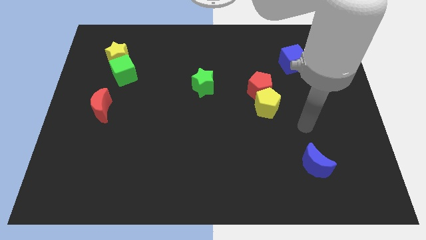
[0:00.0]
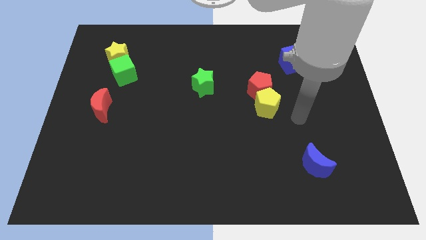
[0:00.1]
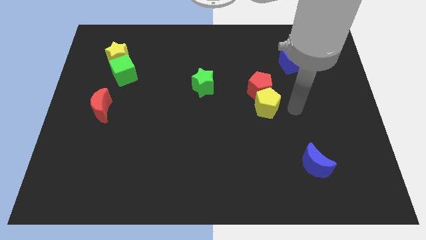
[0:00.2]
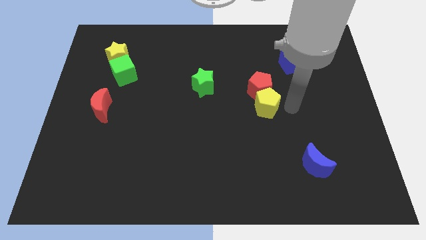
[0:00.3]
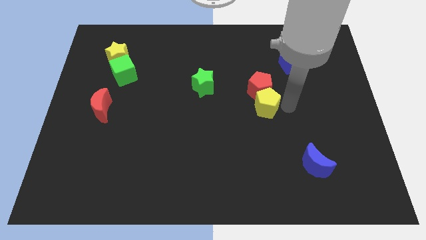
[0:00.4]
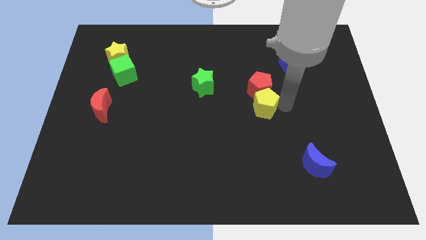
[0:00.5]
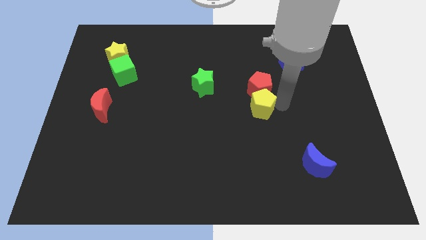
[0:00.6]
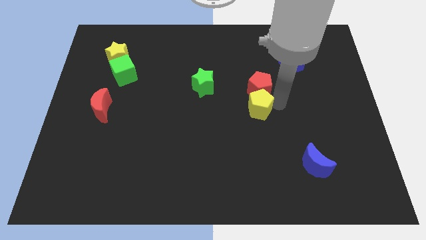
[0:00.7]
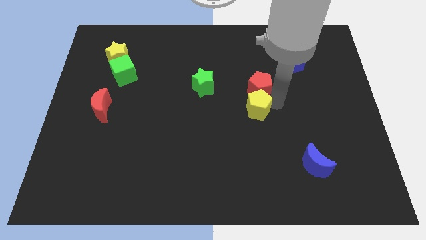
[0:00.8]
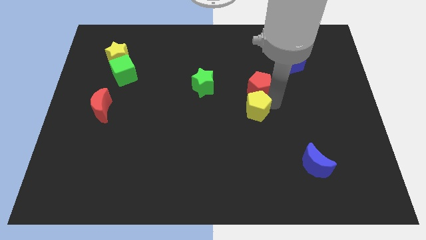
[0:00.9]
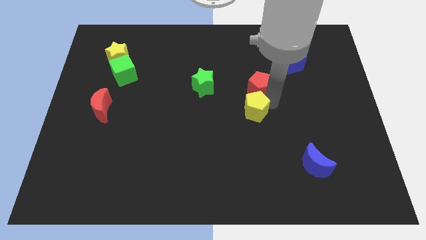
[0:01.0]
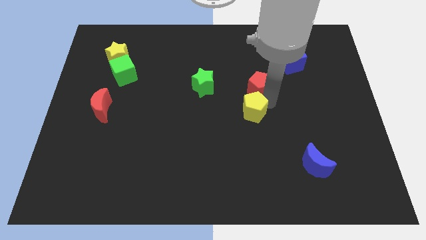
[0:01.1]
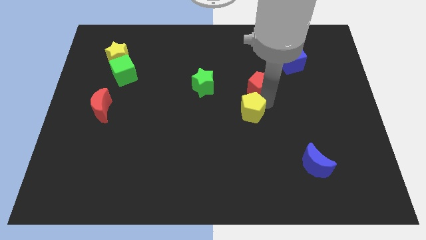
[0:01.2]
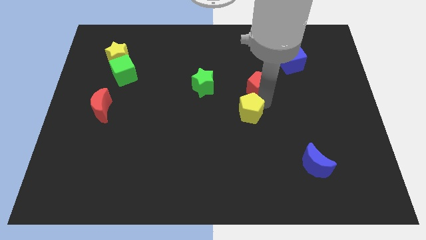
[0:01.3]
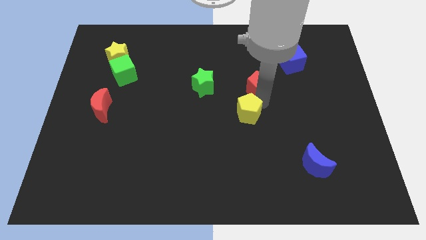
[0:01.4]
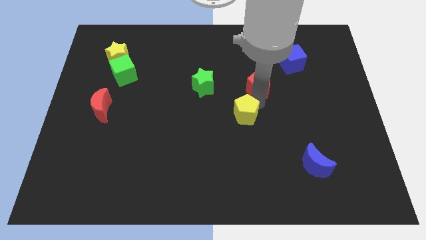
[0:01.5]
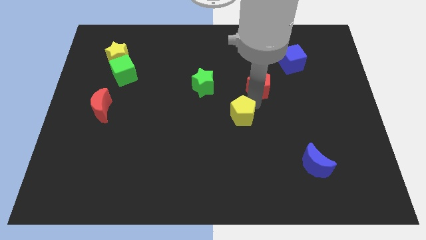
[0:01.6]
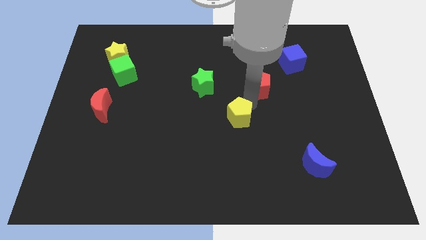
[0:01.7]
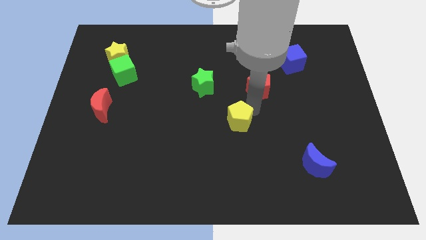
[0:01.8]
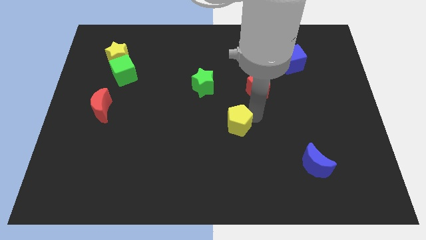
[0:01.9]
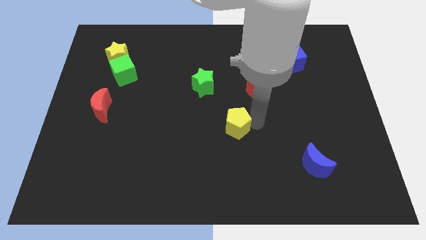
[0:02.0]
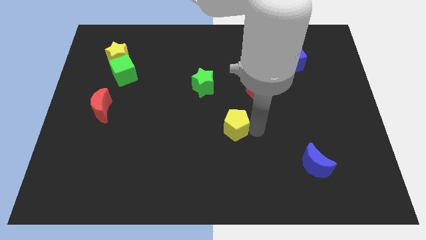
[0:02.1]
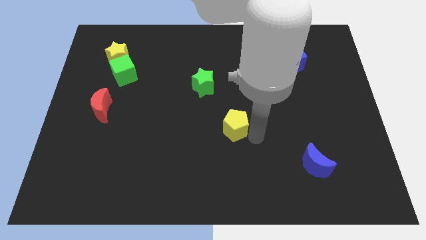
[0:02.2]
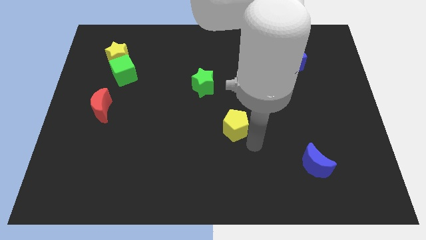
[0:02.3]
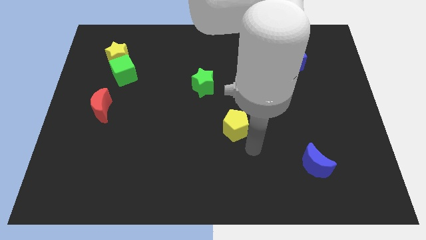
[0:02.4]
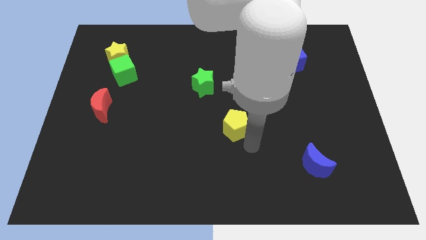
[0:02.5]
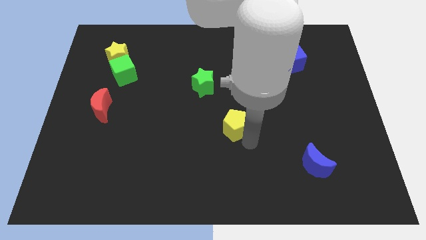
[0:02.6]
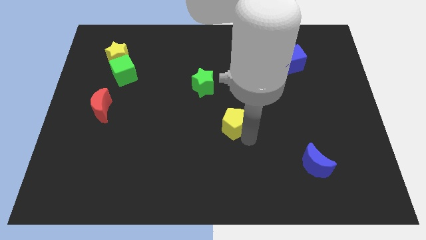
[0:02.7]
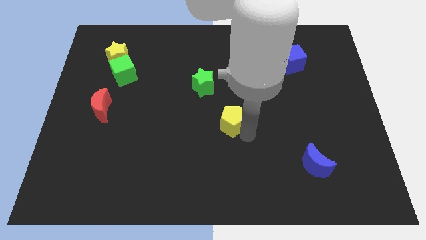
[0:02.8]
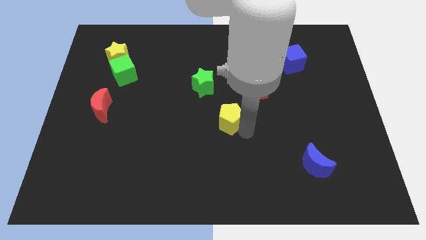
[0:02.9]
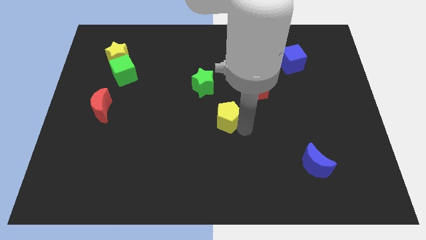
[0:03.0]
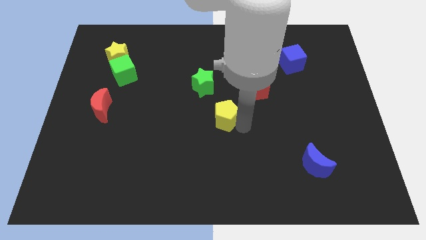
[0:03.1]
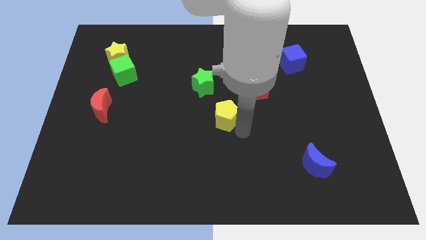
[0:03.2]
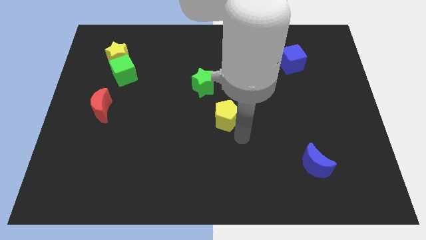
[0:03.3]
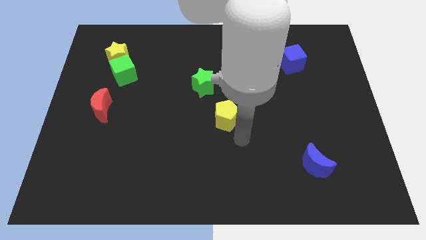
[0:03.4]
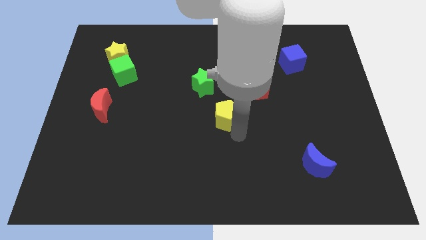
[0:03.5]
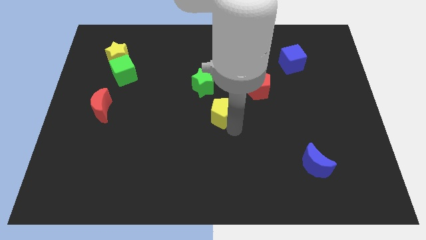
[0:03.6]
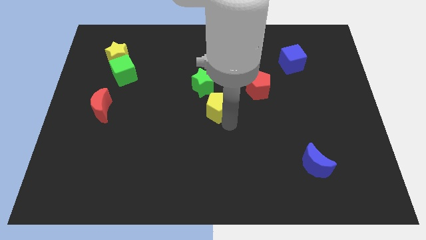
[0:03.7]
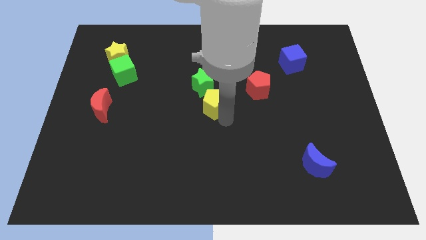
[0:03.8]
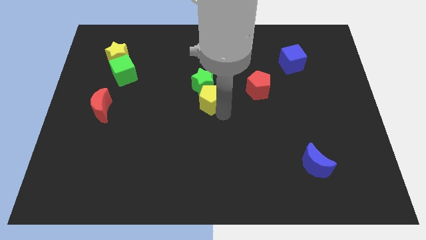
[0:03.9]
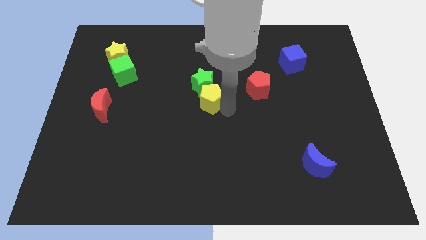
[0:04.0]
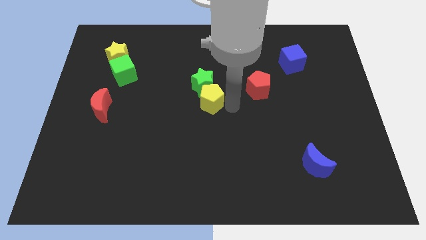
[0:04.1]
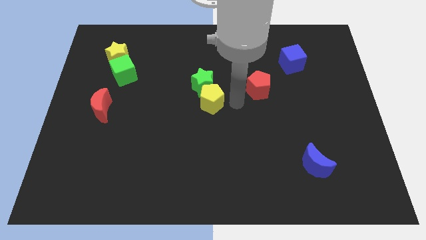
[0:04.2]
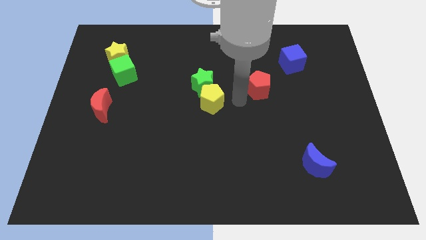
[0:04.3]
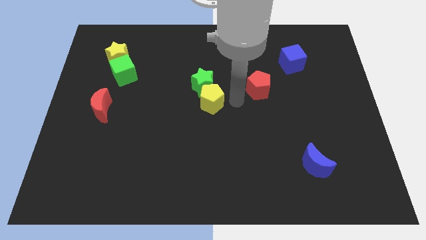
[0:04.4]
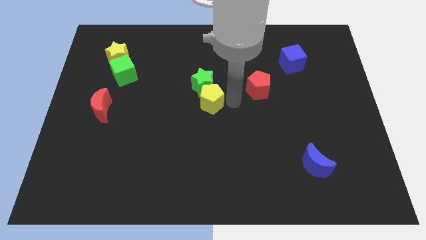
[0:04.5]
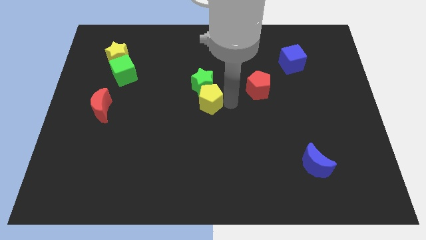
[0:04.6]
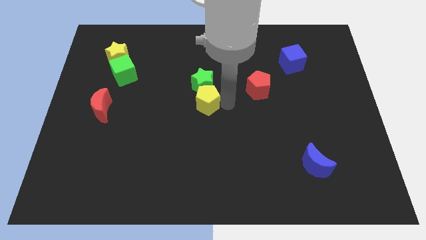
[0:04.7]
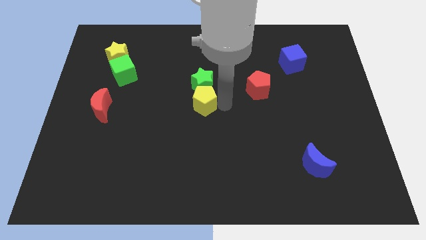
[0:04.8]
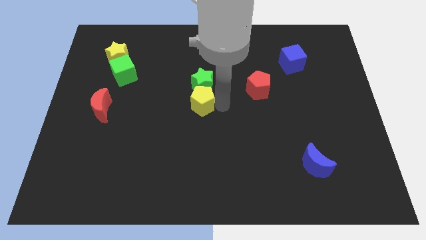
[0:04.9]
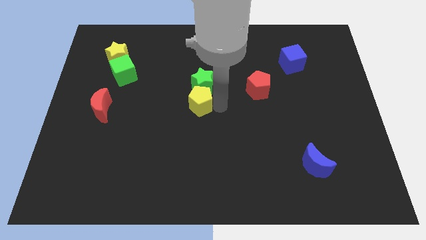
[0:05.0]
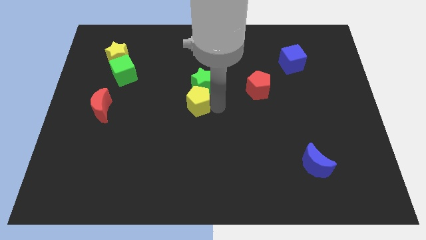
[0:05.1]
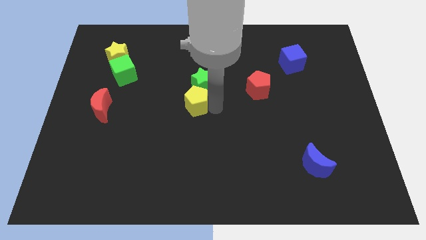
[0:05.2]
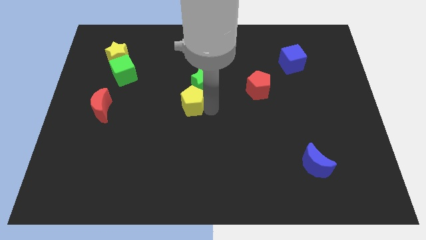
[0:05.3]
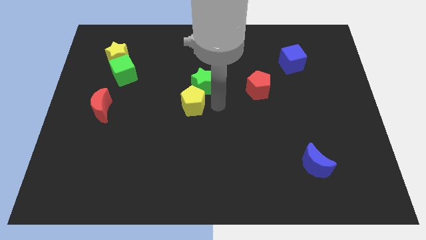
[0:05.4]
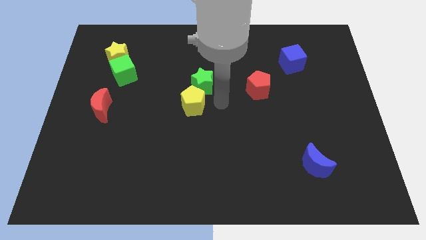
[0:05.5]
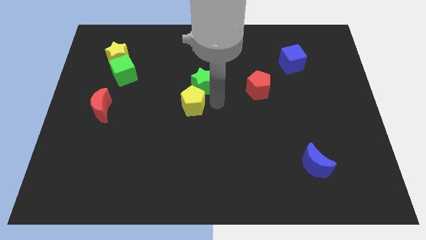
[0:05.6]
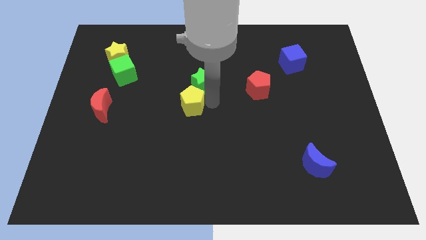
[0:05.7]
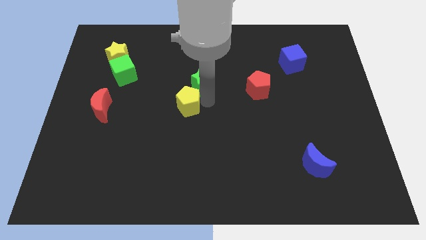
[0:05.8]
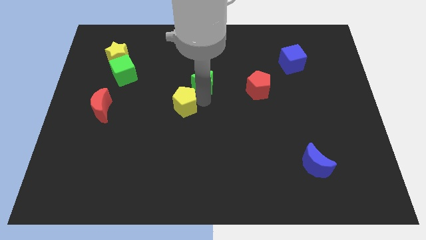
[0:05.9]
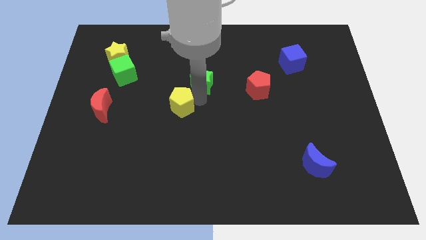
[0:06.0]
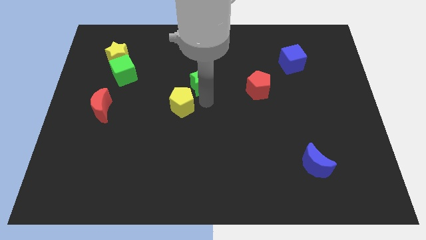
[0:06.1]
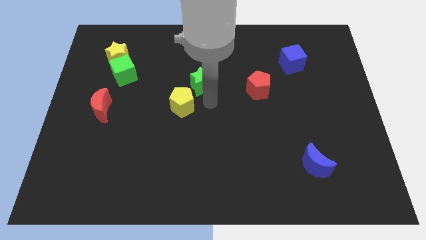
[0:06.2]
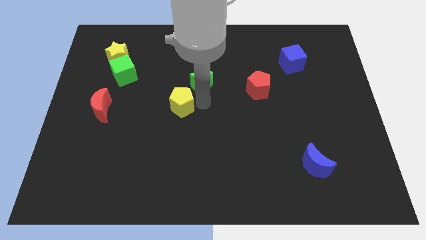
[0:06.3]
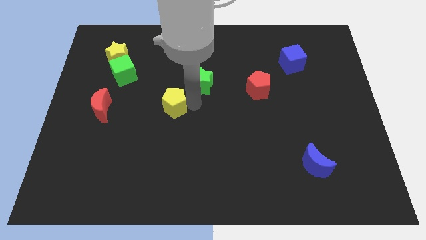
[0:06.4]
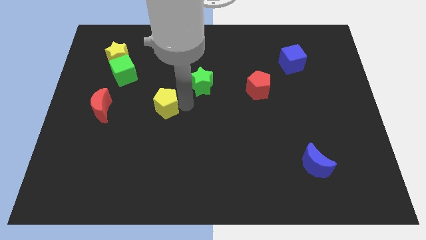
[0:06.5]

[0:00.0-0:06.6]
push the yellow pentagon just right of the red moon

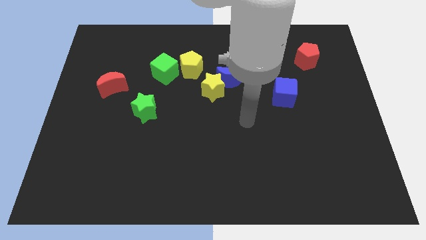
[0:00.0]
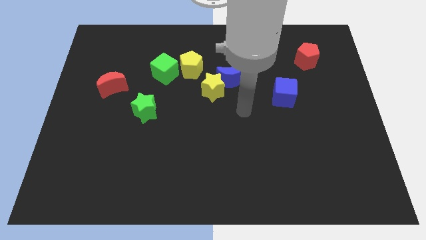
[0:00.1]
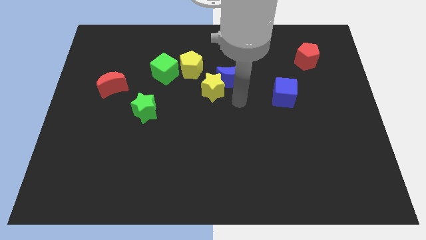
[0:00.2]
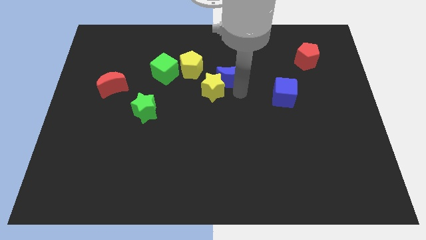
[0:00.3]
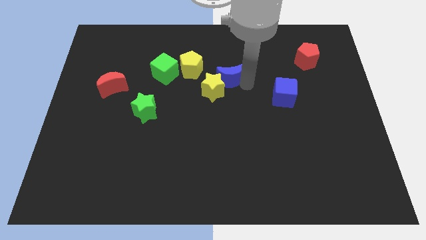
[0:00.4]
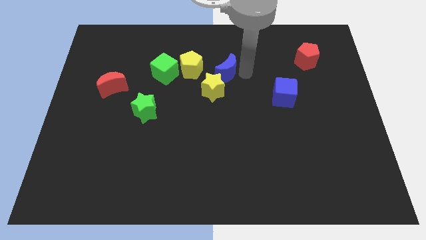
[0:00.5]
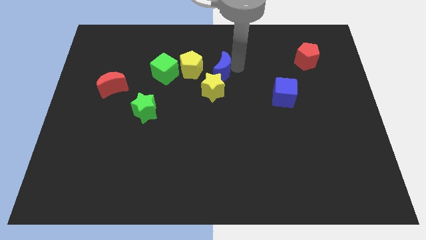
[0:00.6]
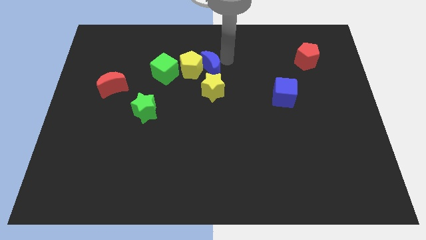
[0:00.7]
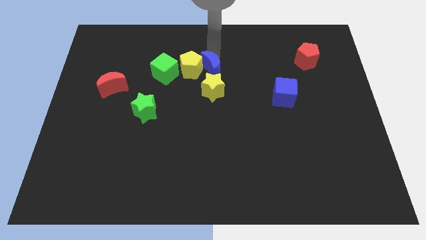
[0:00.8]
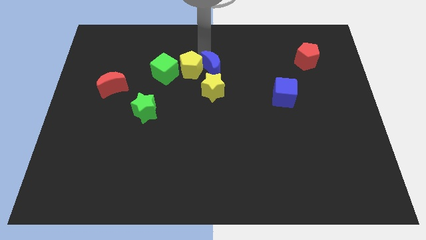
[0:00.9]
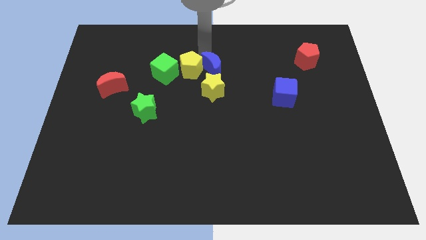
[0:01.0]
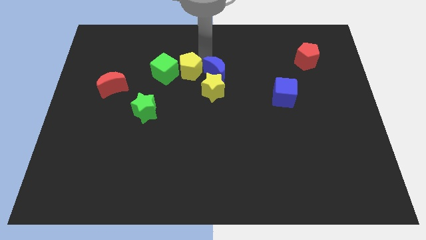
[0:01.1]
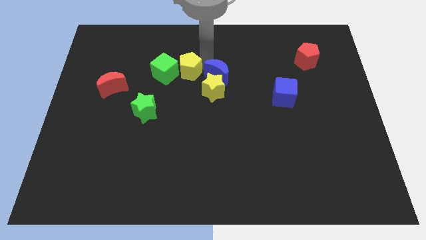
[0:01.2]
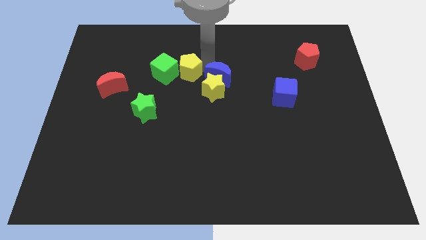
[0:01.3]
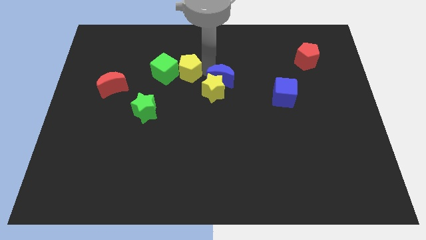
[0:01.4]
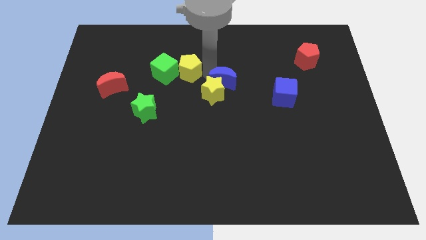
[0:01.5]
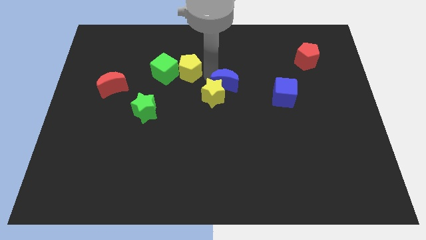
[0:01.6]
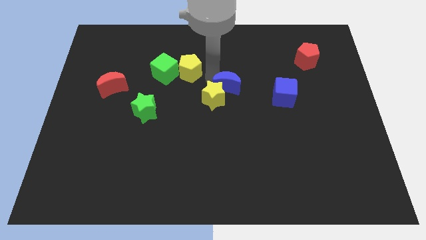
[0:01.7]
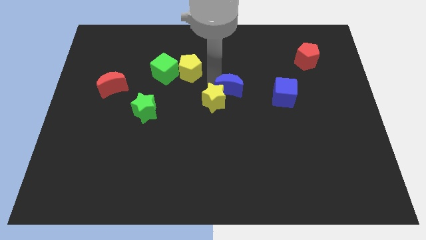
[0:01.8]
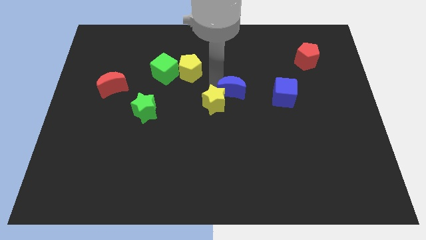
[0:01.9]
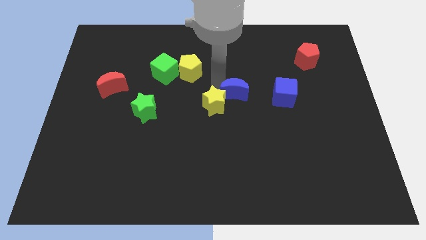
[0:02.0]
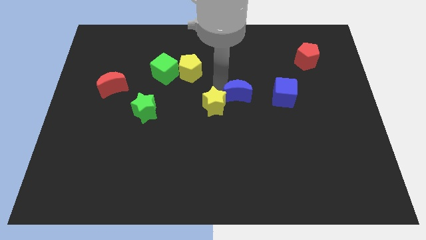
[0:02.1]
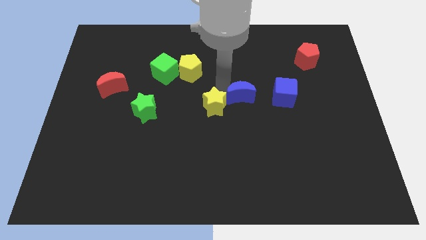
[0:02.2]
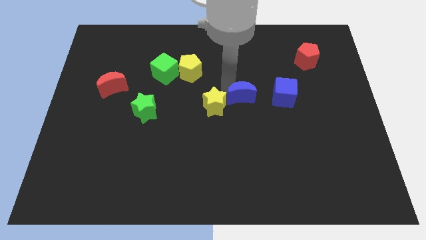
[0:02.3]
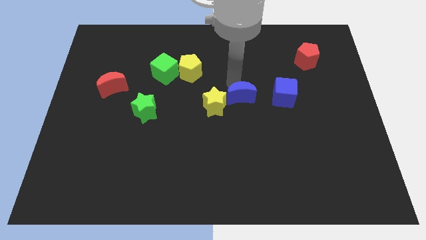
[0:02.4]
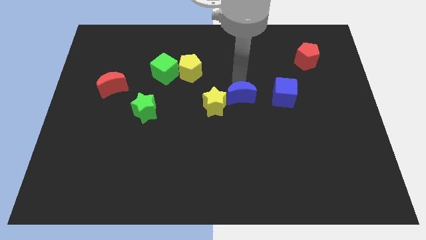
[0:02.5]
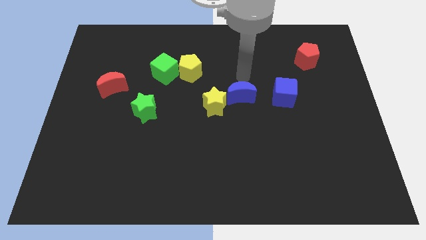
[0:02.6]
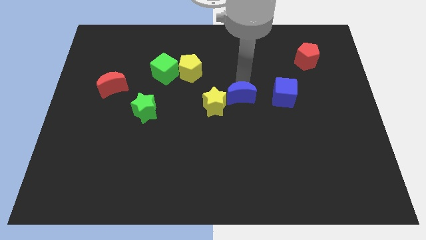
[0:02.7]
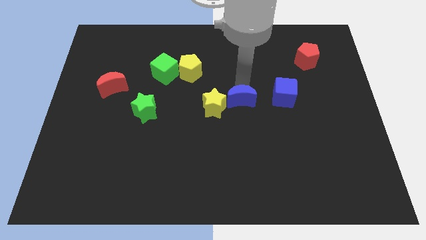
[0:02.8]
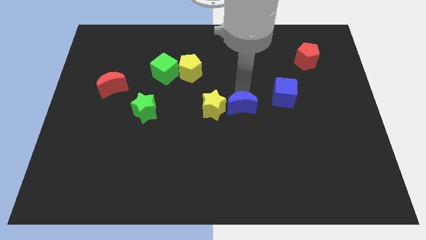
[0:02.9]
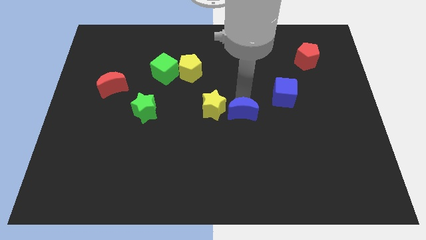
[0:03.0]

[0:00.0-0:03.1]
slide the blue moon to the bottom right side of the yellow star
